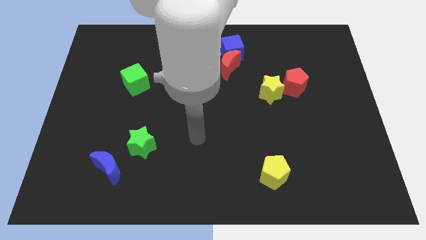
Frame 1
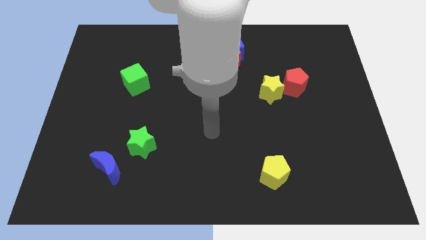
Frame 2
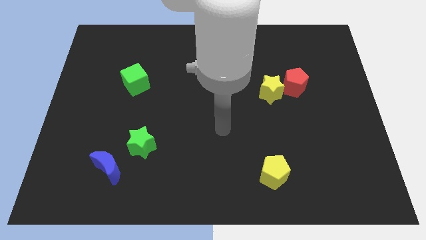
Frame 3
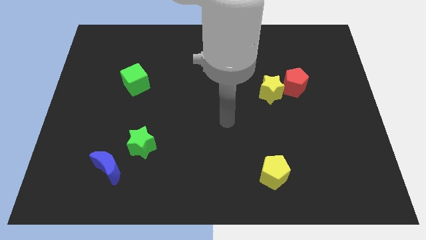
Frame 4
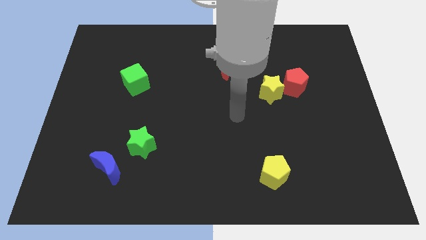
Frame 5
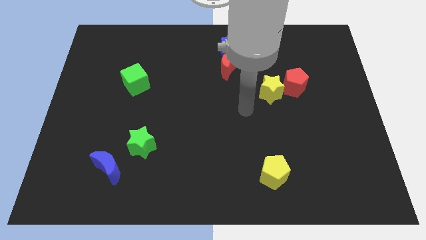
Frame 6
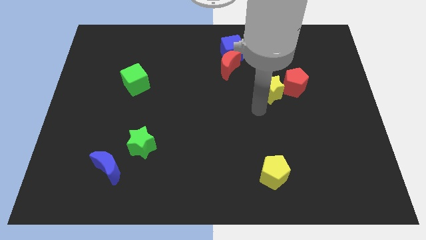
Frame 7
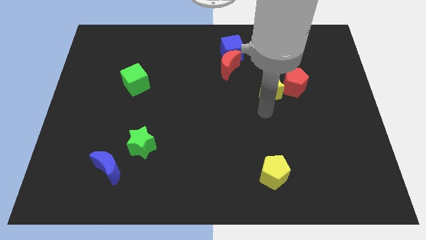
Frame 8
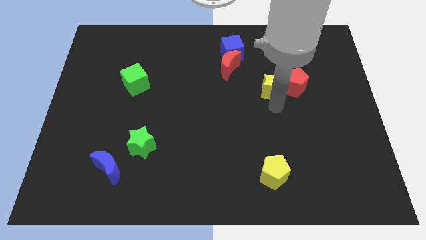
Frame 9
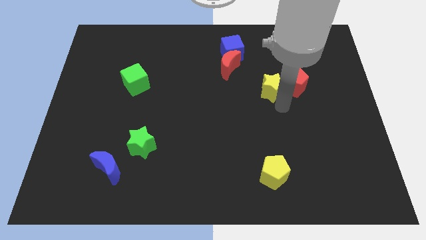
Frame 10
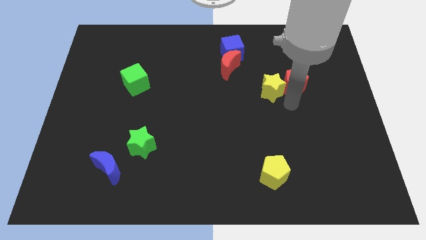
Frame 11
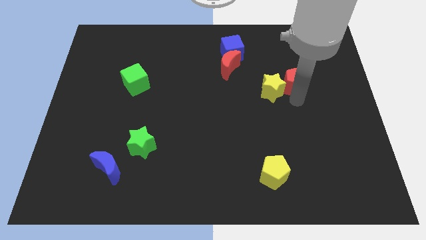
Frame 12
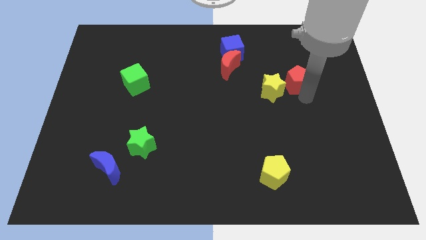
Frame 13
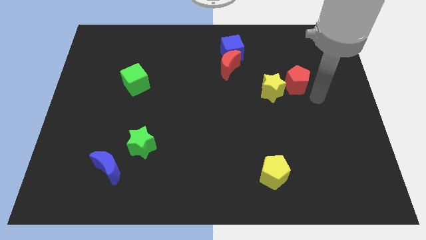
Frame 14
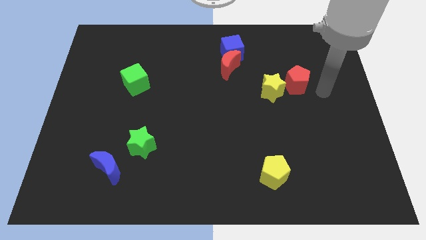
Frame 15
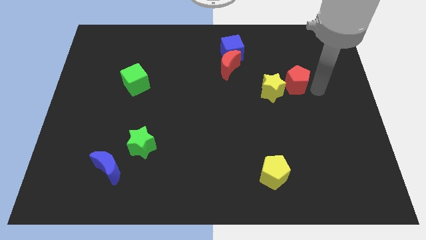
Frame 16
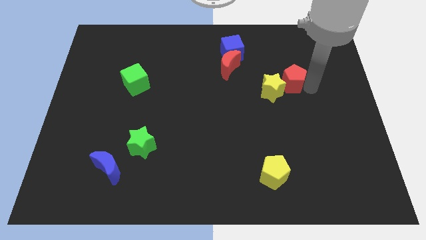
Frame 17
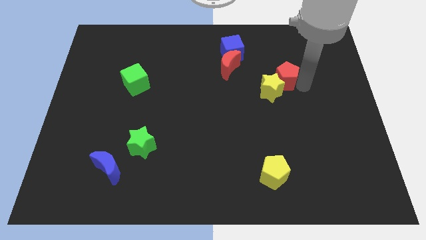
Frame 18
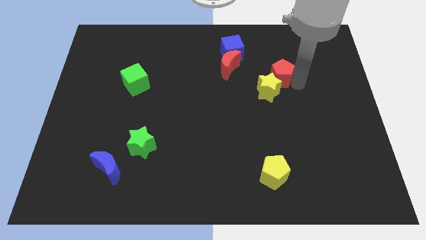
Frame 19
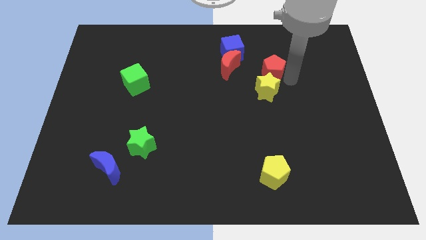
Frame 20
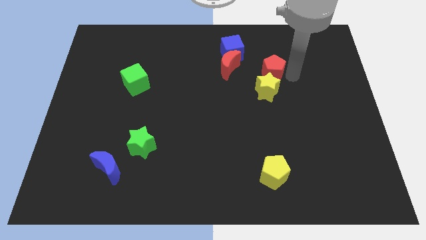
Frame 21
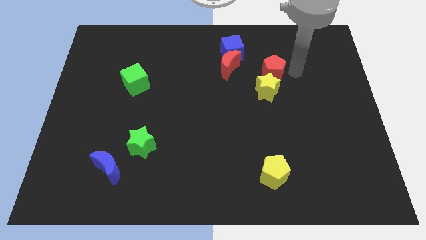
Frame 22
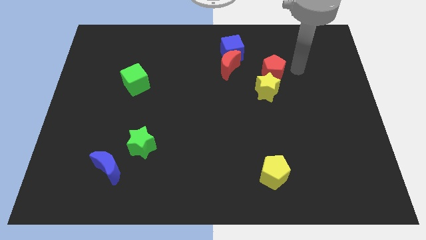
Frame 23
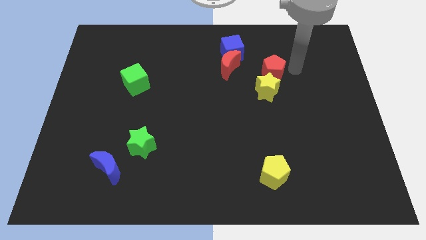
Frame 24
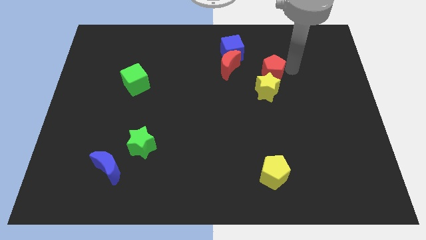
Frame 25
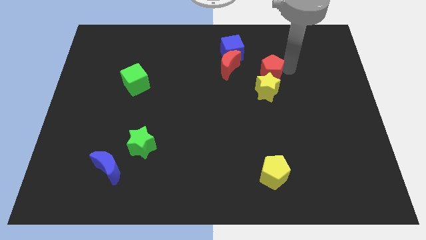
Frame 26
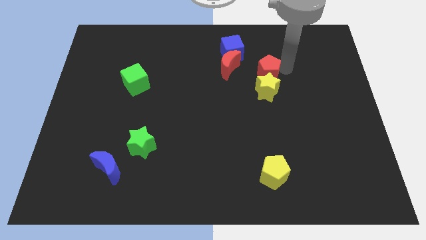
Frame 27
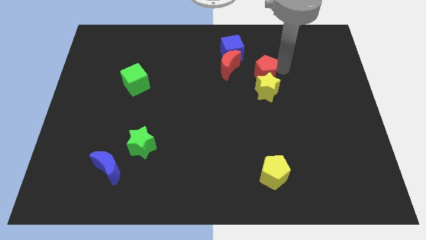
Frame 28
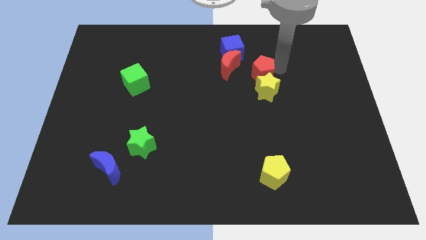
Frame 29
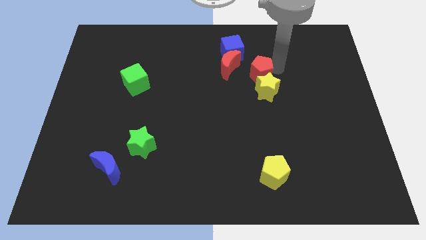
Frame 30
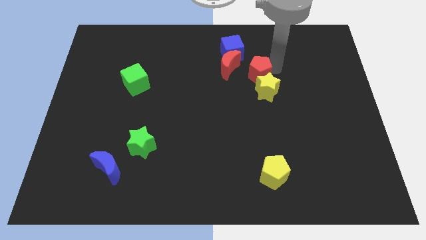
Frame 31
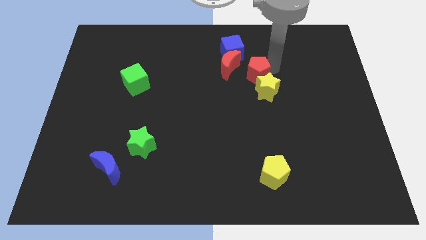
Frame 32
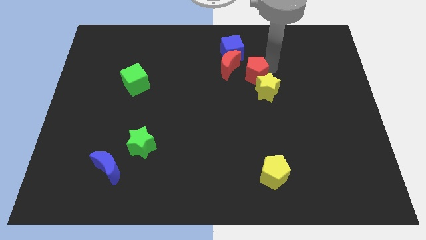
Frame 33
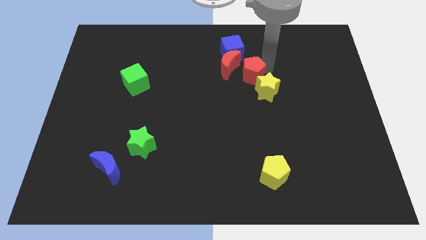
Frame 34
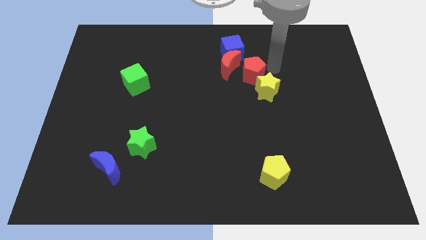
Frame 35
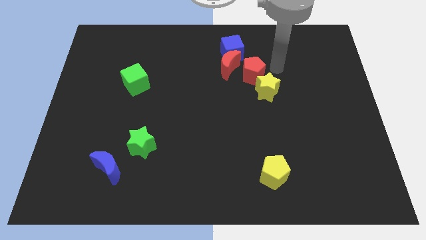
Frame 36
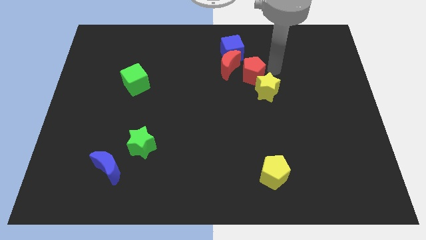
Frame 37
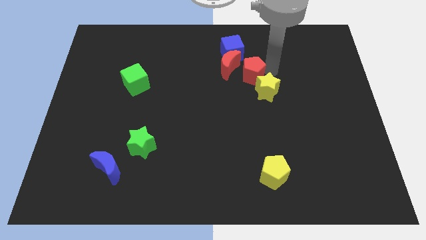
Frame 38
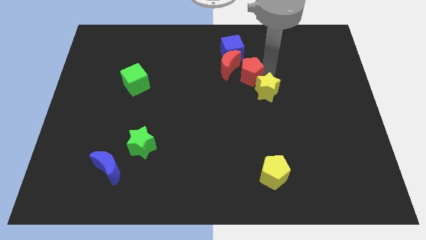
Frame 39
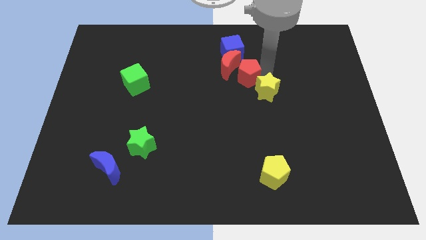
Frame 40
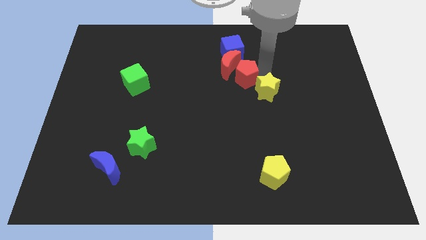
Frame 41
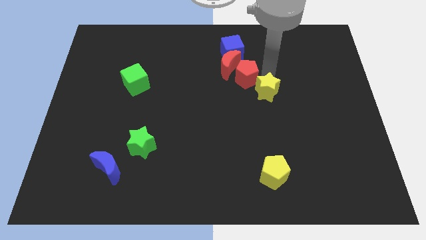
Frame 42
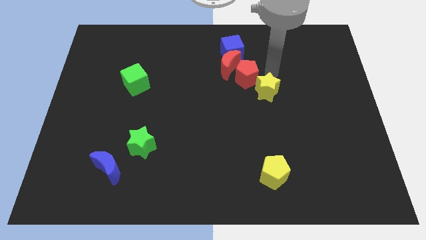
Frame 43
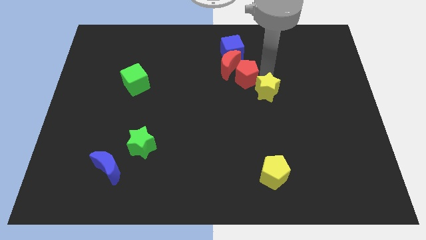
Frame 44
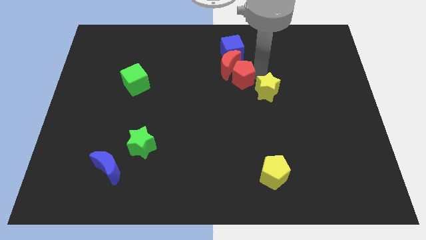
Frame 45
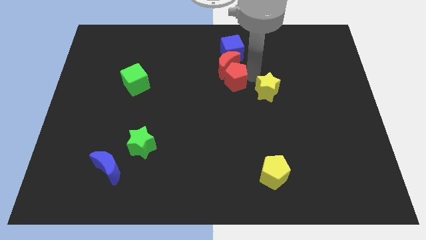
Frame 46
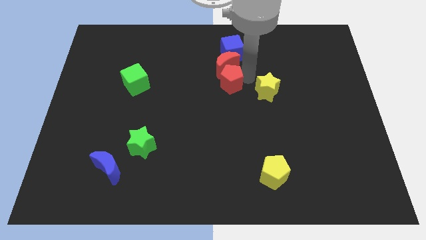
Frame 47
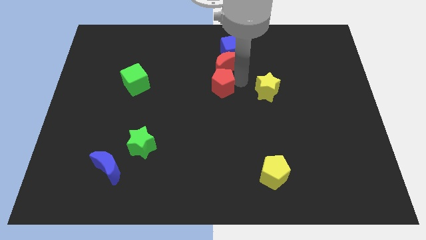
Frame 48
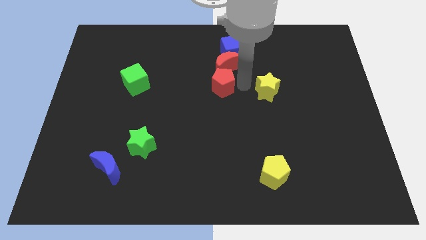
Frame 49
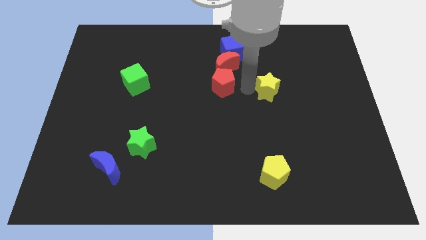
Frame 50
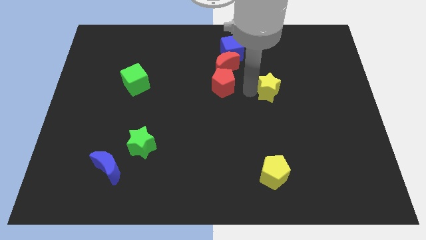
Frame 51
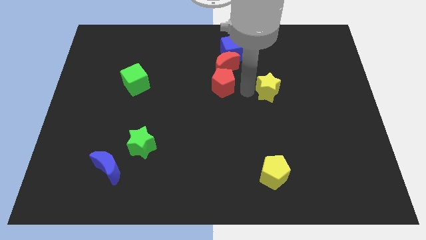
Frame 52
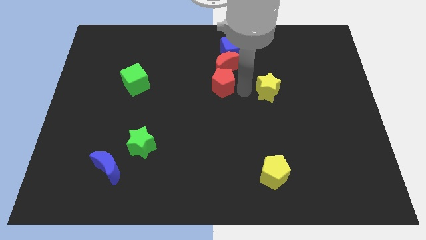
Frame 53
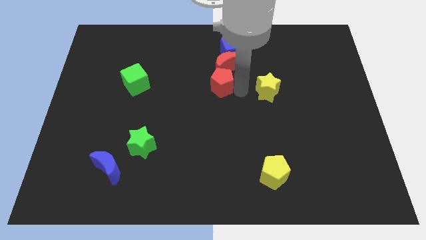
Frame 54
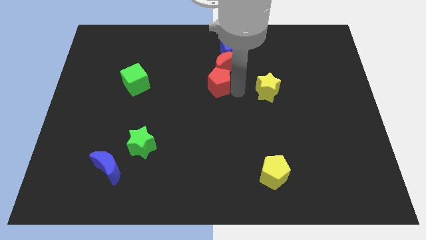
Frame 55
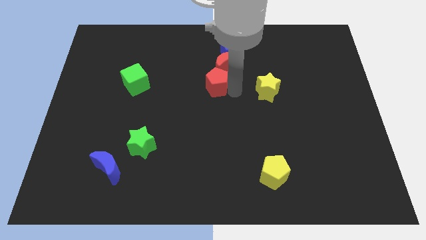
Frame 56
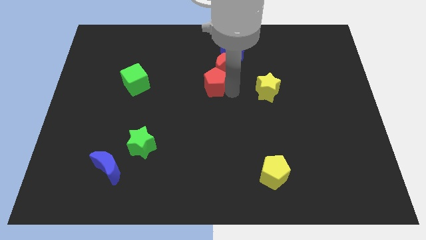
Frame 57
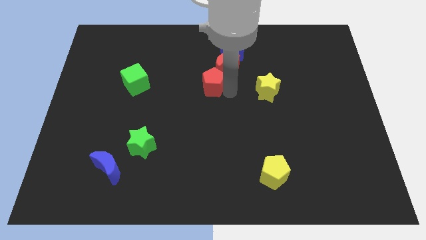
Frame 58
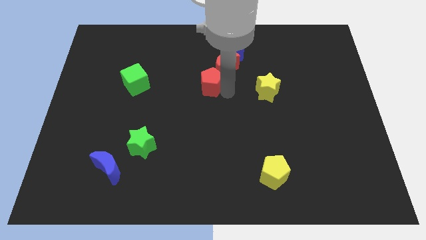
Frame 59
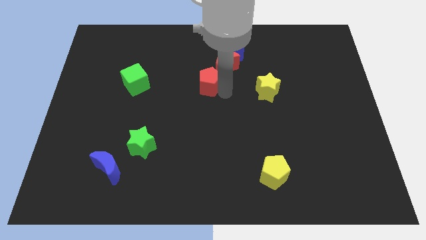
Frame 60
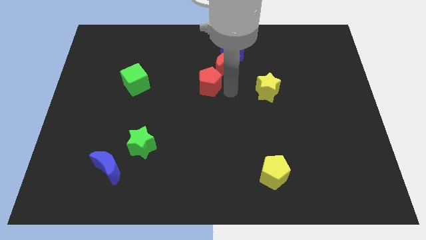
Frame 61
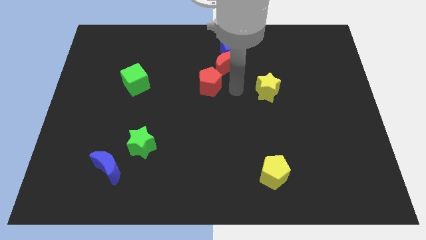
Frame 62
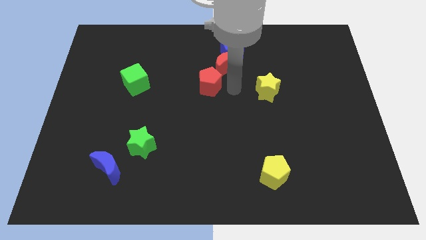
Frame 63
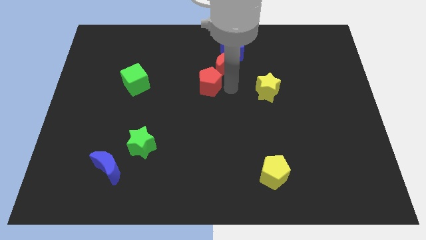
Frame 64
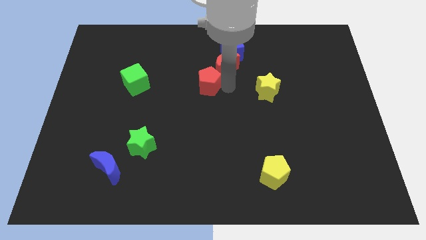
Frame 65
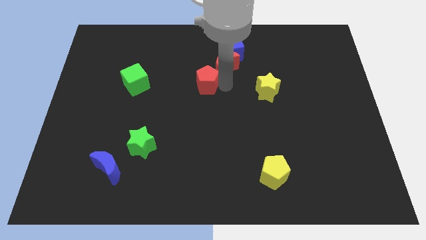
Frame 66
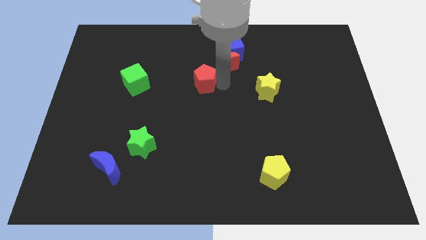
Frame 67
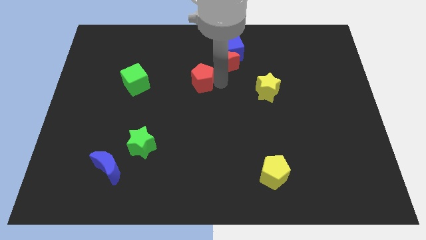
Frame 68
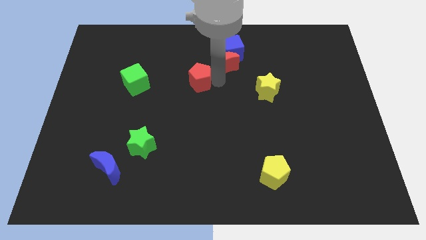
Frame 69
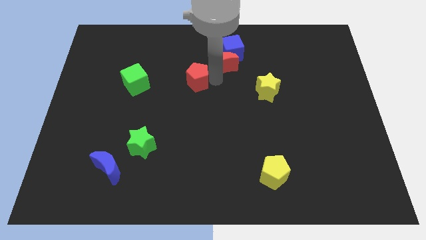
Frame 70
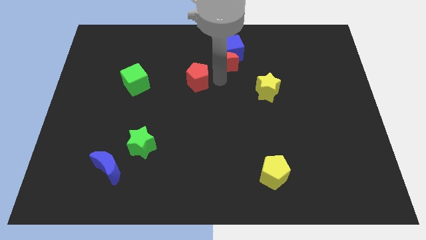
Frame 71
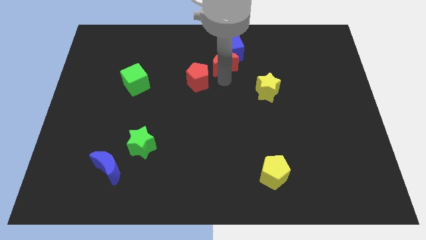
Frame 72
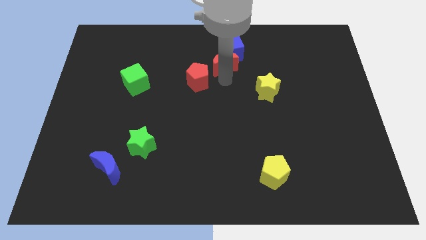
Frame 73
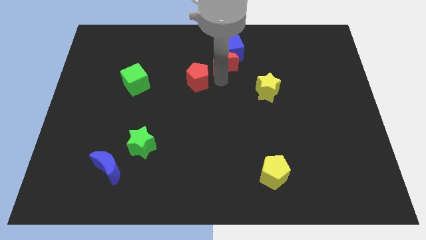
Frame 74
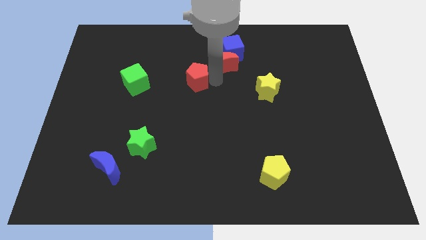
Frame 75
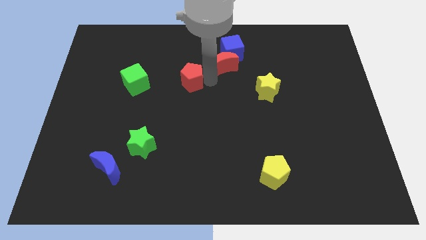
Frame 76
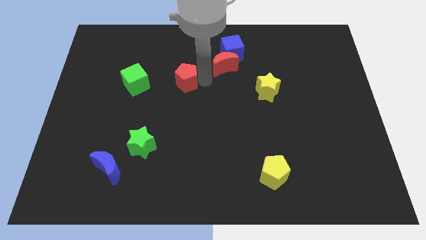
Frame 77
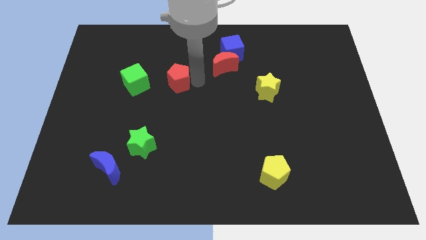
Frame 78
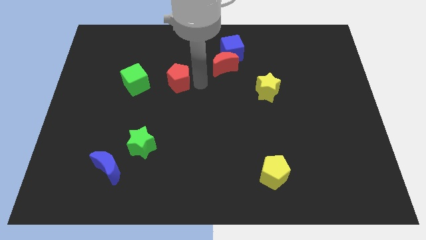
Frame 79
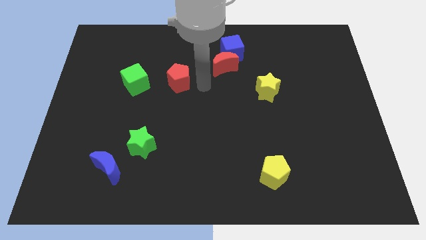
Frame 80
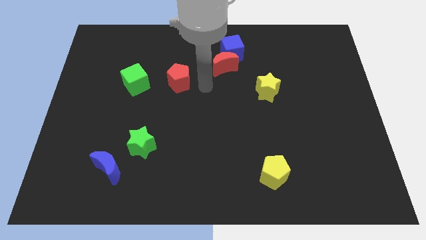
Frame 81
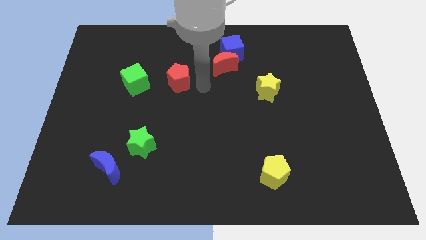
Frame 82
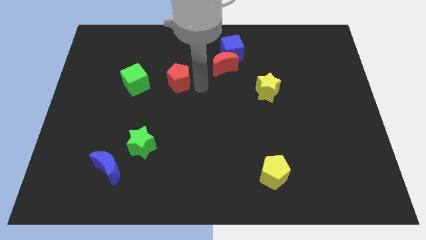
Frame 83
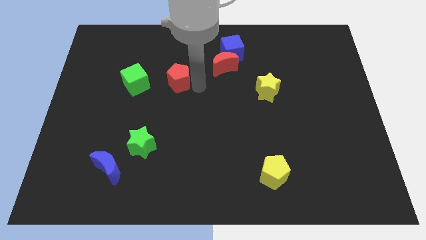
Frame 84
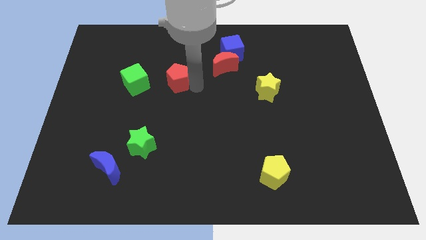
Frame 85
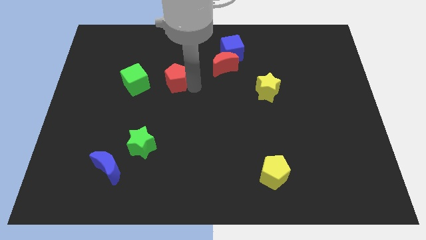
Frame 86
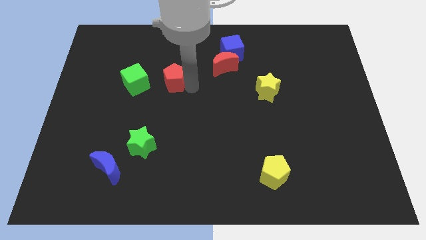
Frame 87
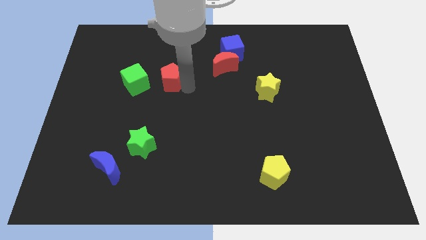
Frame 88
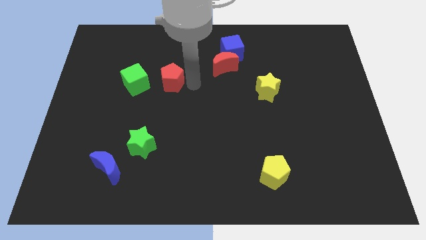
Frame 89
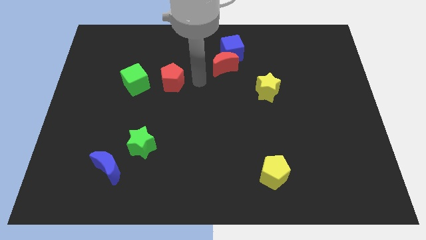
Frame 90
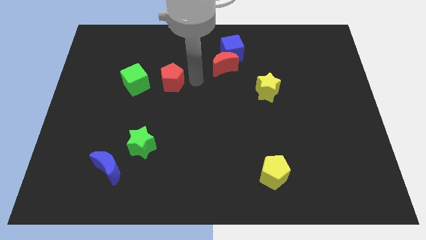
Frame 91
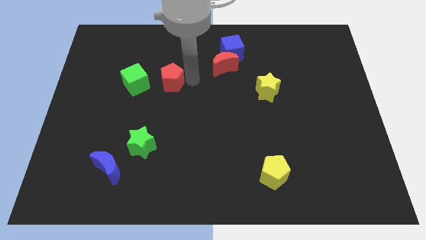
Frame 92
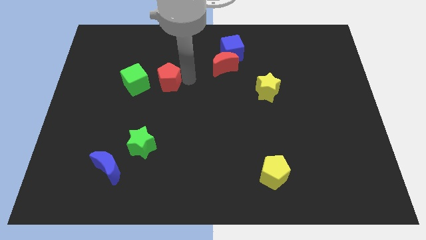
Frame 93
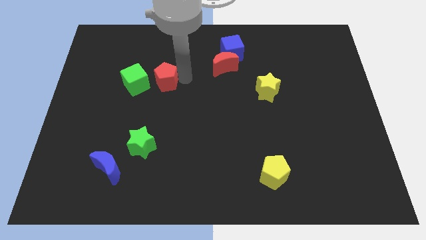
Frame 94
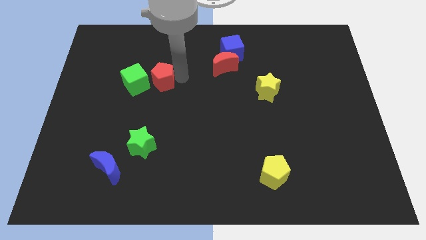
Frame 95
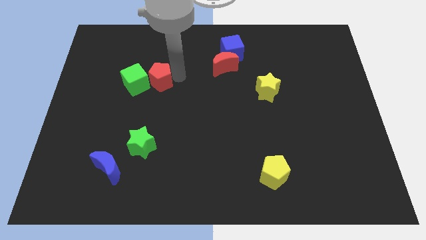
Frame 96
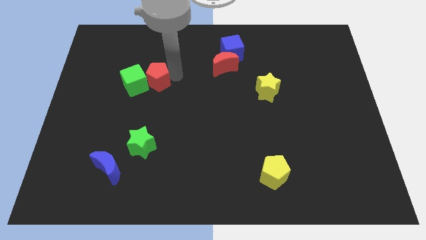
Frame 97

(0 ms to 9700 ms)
move the red pentagon towards the green cube
